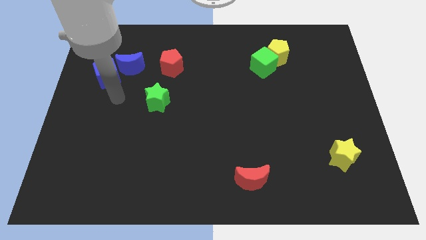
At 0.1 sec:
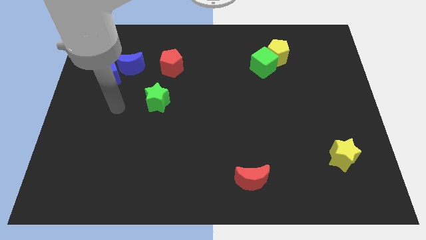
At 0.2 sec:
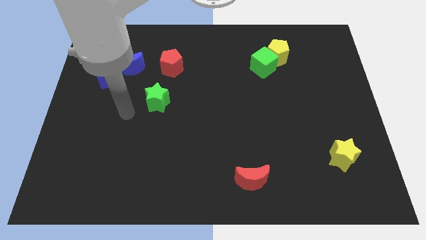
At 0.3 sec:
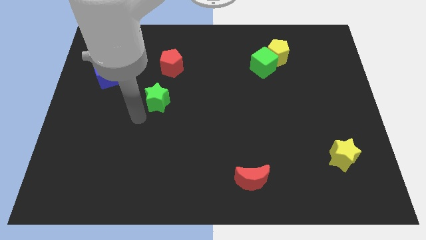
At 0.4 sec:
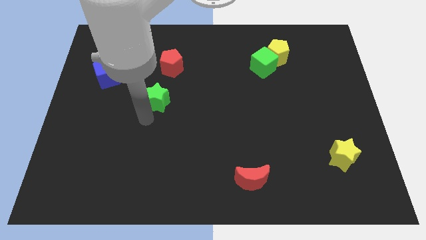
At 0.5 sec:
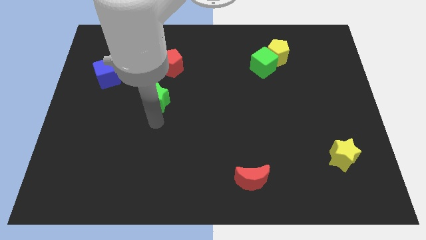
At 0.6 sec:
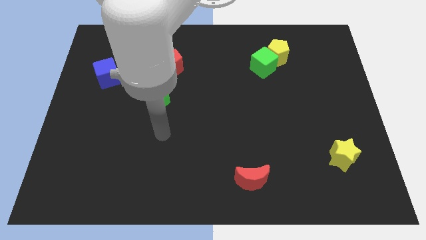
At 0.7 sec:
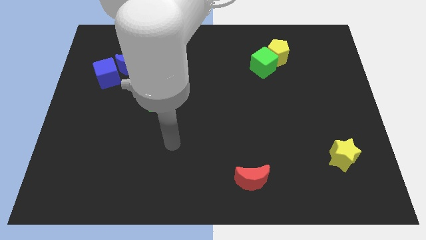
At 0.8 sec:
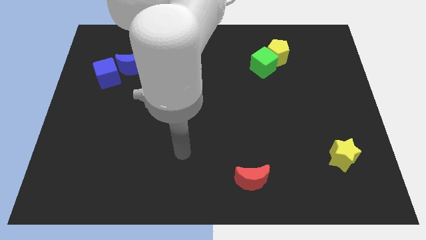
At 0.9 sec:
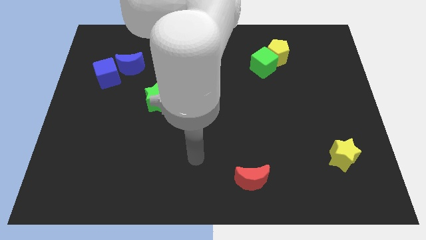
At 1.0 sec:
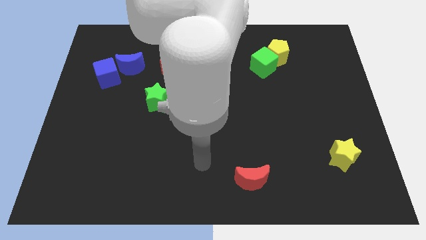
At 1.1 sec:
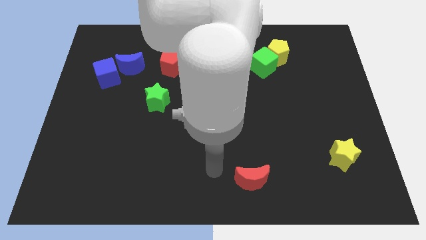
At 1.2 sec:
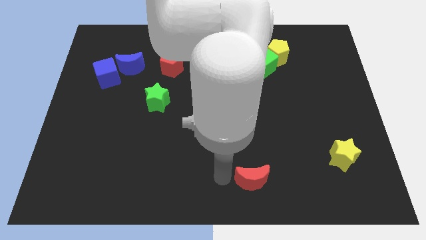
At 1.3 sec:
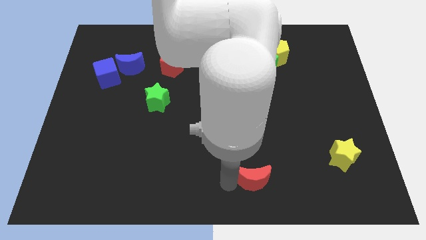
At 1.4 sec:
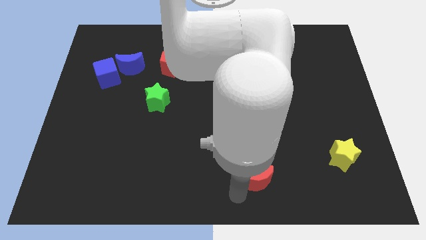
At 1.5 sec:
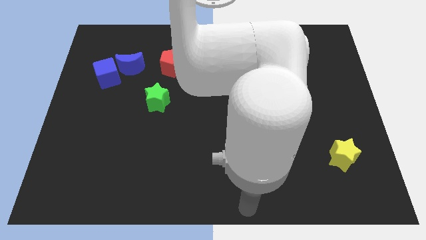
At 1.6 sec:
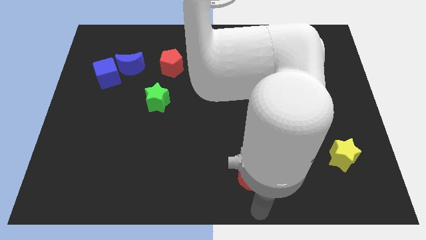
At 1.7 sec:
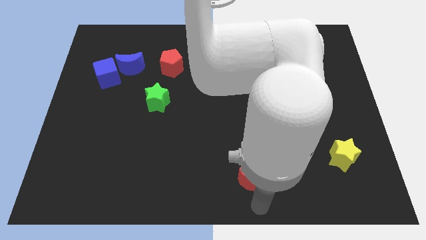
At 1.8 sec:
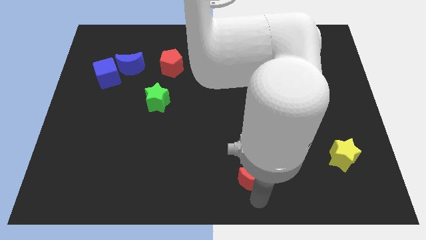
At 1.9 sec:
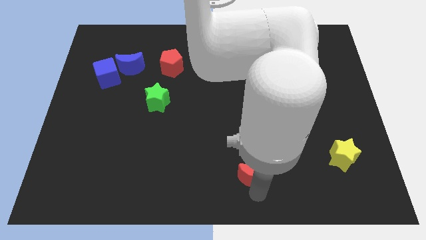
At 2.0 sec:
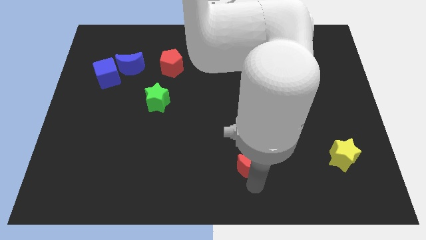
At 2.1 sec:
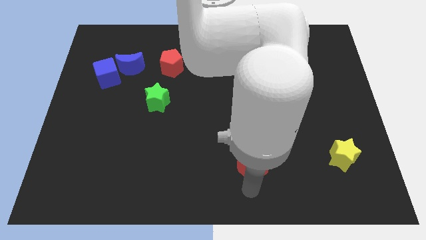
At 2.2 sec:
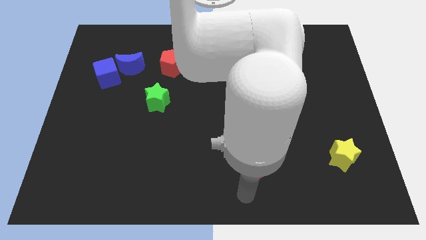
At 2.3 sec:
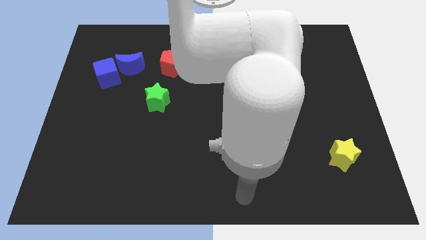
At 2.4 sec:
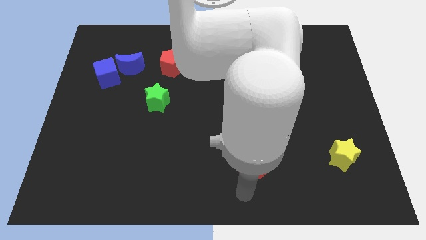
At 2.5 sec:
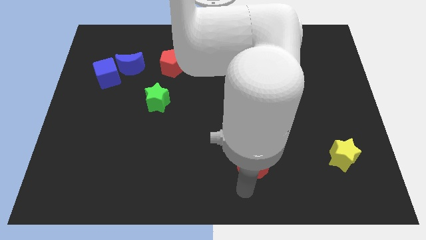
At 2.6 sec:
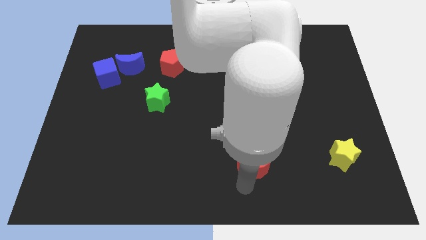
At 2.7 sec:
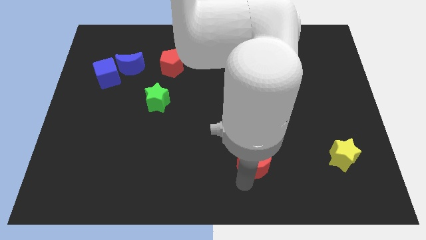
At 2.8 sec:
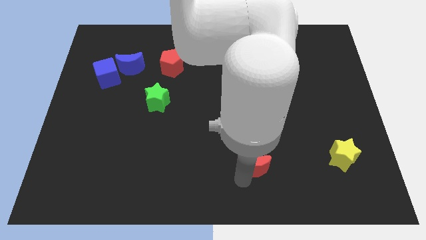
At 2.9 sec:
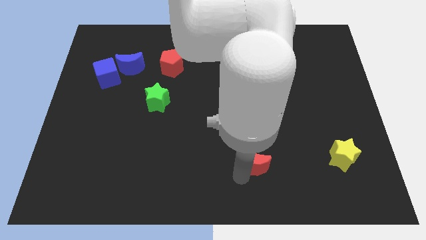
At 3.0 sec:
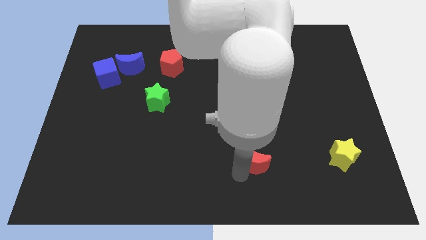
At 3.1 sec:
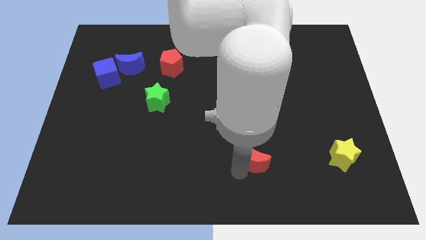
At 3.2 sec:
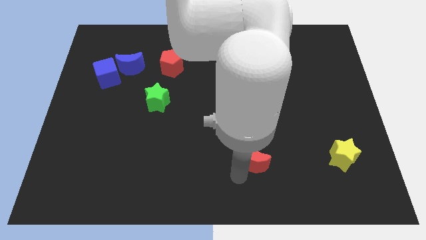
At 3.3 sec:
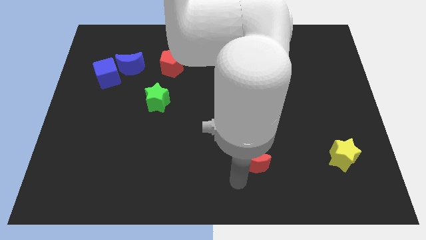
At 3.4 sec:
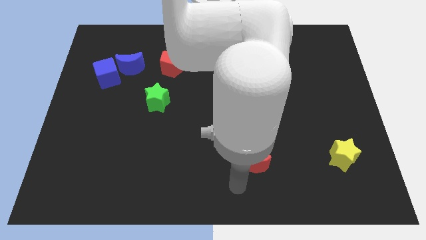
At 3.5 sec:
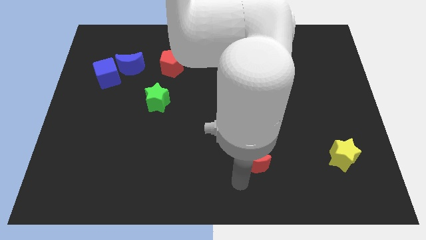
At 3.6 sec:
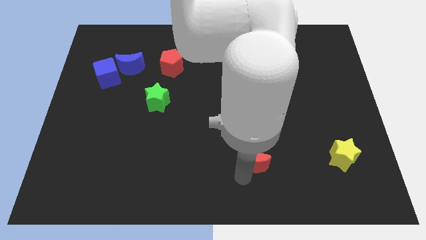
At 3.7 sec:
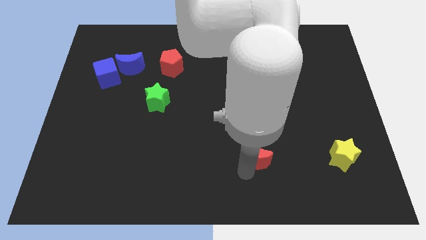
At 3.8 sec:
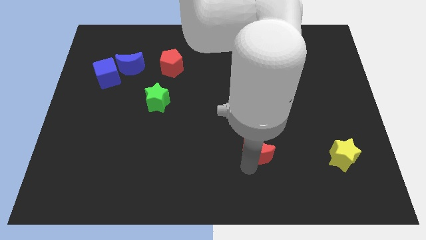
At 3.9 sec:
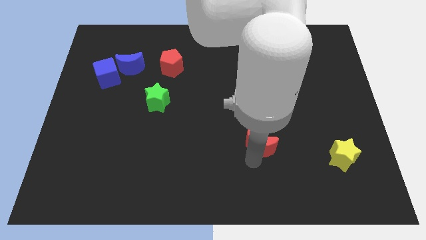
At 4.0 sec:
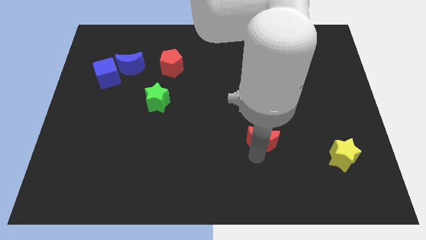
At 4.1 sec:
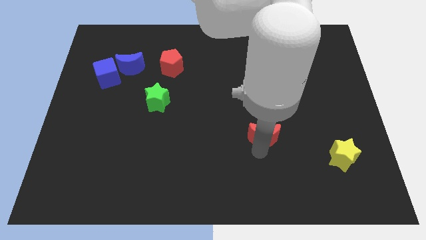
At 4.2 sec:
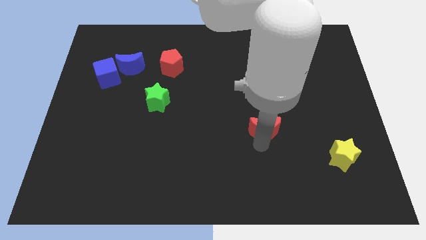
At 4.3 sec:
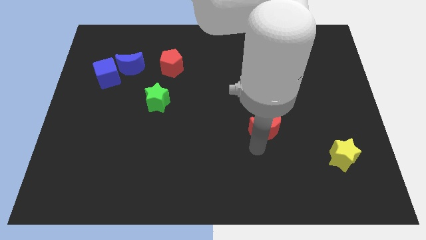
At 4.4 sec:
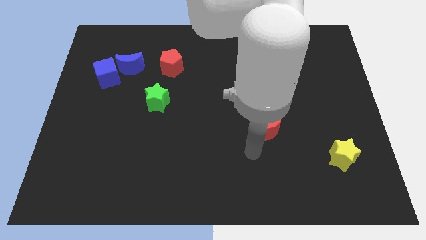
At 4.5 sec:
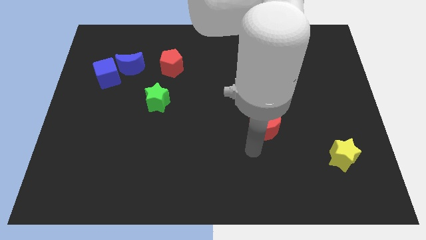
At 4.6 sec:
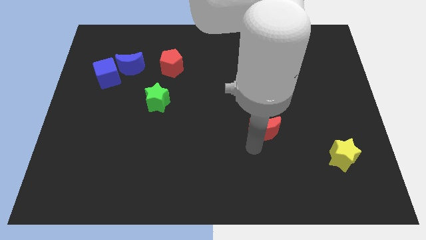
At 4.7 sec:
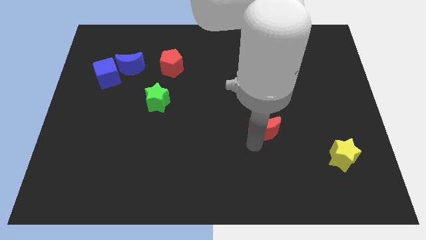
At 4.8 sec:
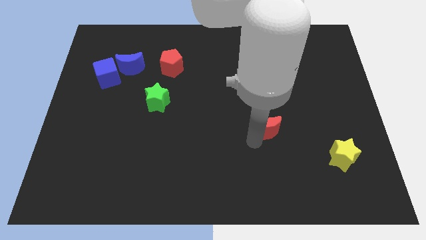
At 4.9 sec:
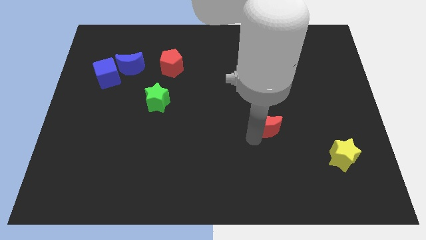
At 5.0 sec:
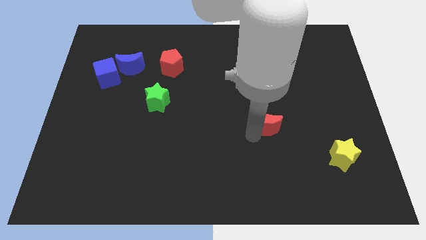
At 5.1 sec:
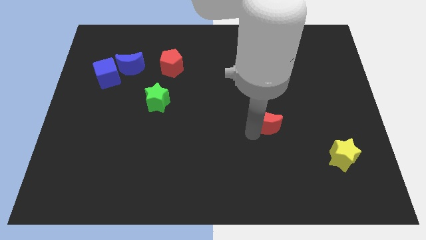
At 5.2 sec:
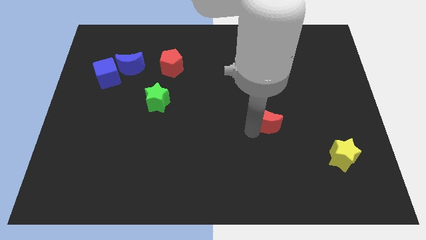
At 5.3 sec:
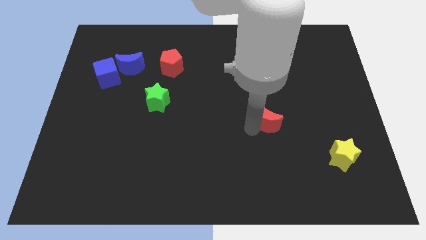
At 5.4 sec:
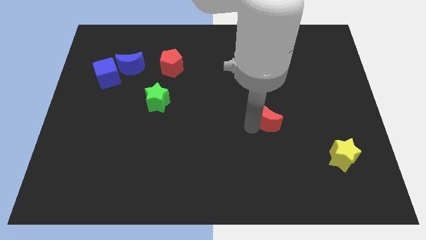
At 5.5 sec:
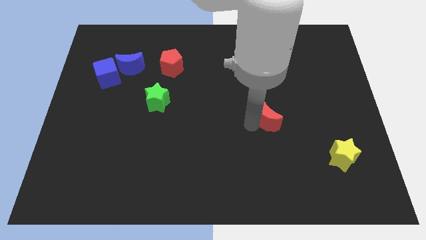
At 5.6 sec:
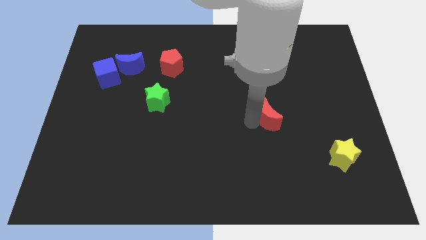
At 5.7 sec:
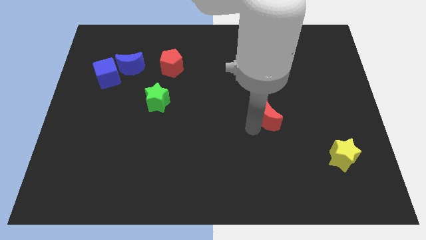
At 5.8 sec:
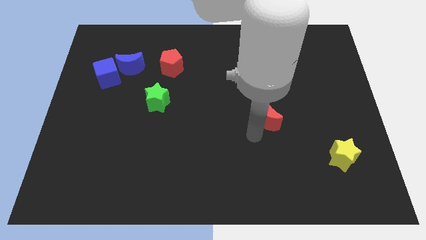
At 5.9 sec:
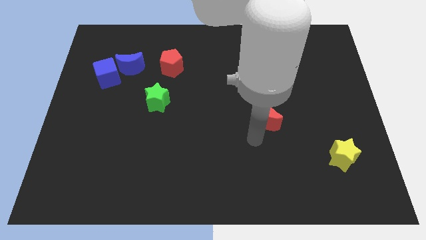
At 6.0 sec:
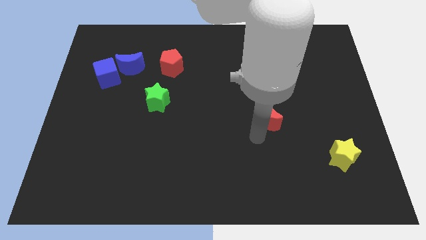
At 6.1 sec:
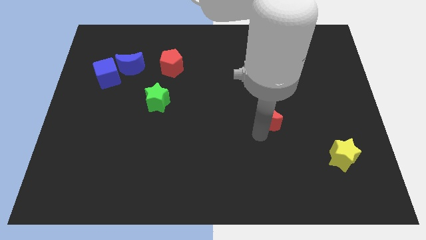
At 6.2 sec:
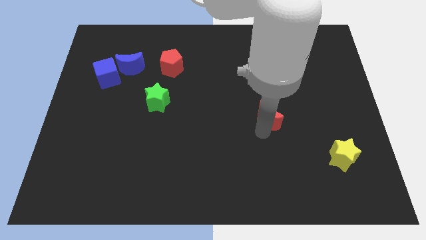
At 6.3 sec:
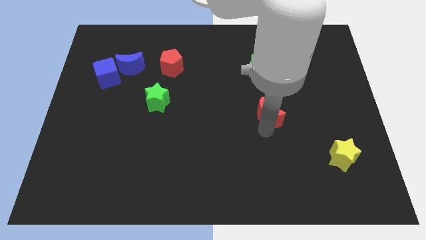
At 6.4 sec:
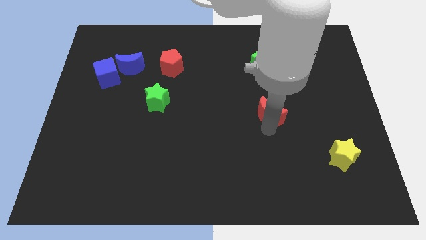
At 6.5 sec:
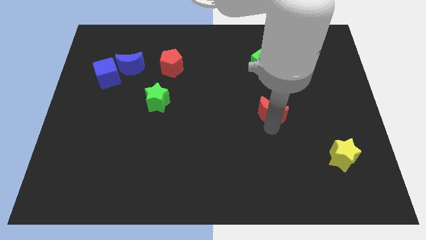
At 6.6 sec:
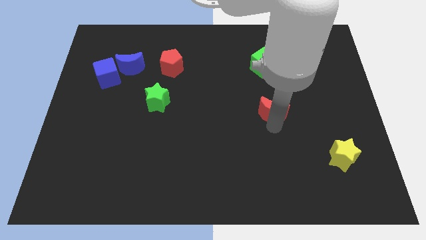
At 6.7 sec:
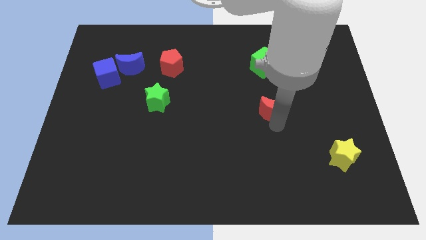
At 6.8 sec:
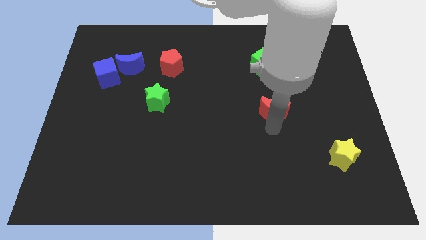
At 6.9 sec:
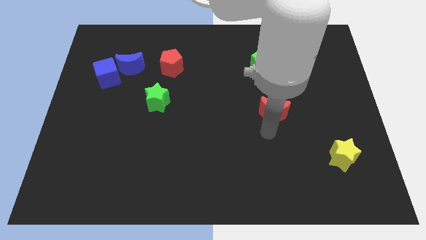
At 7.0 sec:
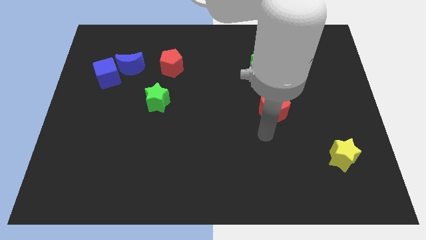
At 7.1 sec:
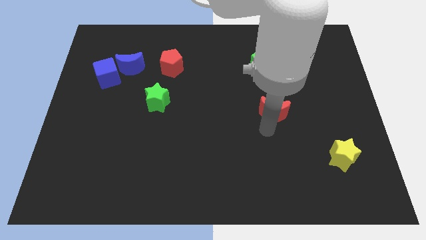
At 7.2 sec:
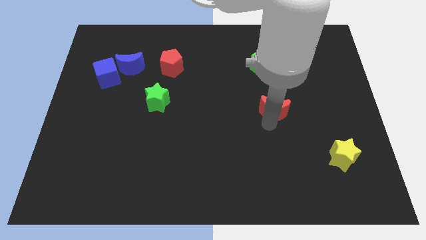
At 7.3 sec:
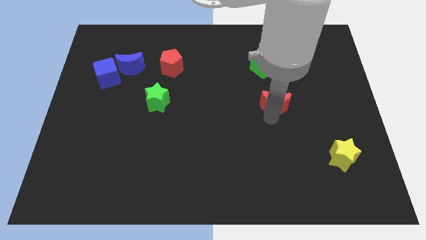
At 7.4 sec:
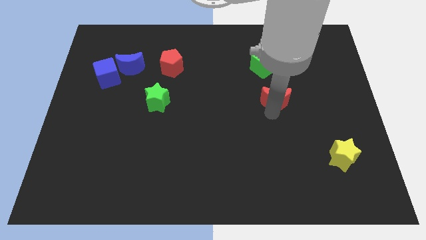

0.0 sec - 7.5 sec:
put the red moon below the yellow pentagon
